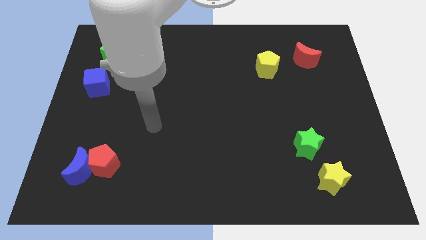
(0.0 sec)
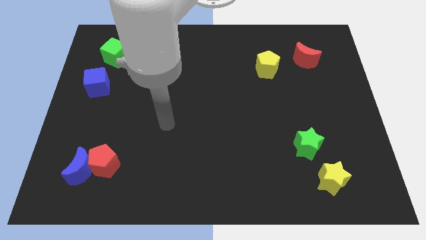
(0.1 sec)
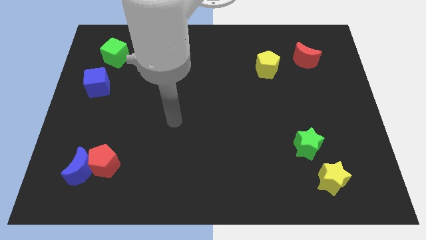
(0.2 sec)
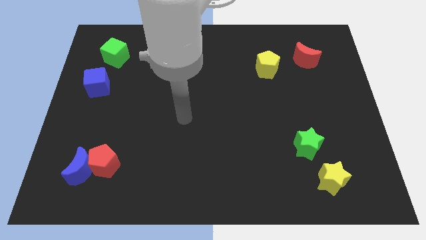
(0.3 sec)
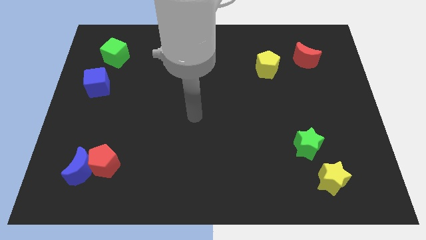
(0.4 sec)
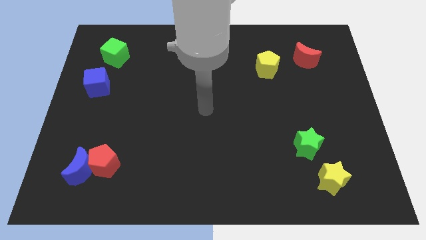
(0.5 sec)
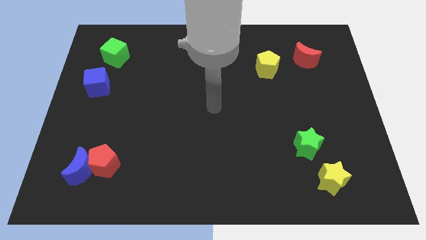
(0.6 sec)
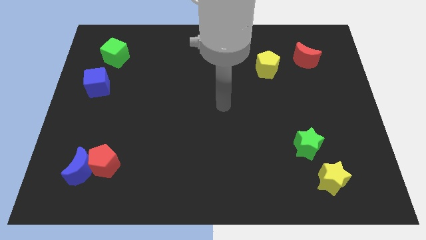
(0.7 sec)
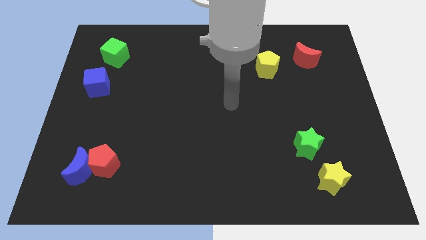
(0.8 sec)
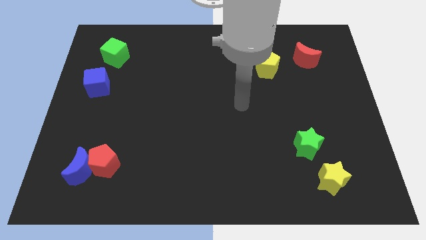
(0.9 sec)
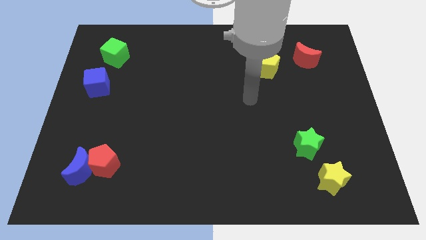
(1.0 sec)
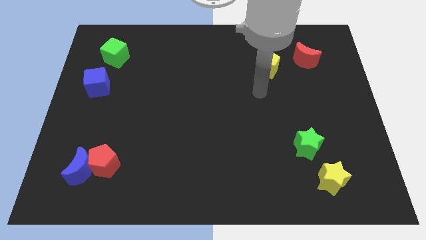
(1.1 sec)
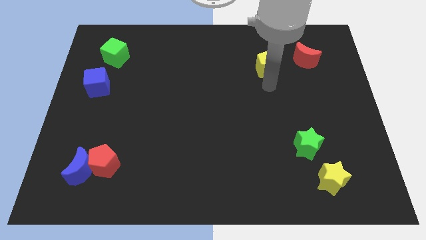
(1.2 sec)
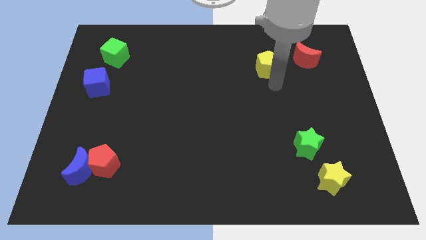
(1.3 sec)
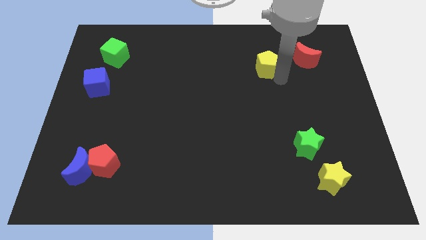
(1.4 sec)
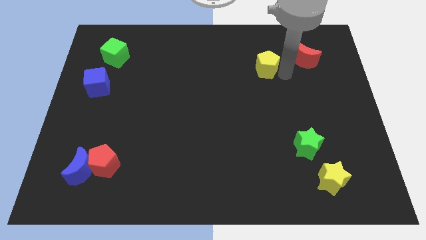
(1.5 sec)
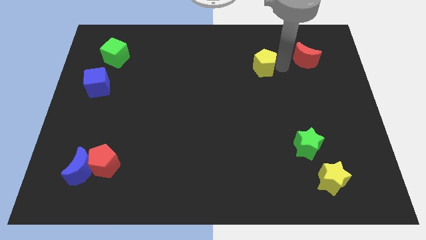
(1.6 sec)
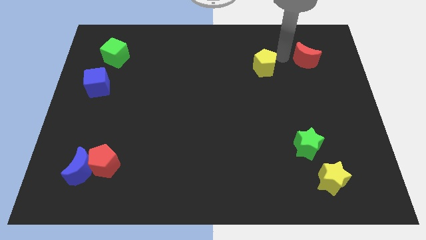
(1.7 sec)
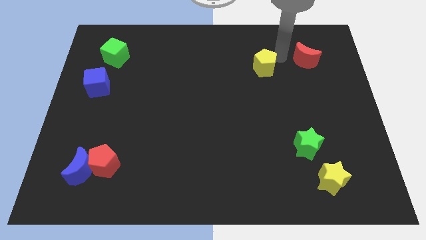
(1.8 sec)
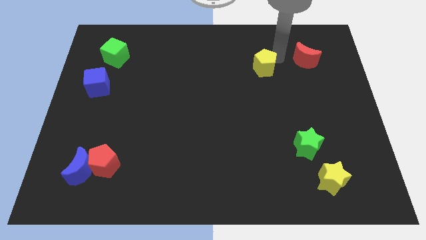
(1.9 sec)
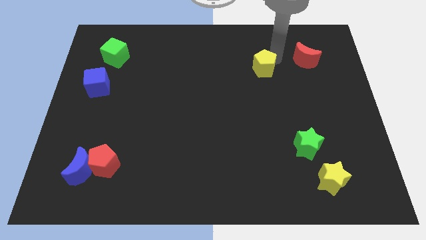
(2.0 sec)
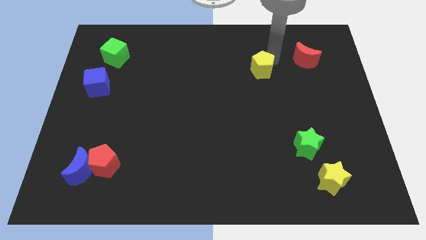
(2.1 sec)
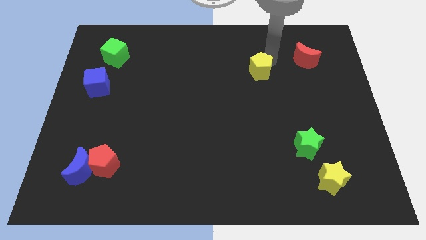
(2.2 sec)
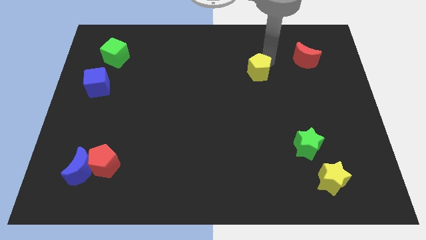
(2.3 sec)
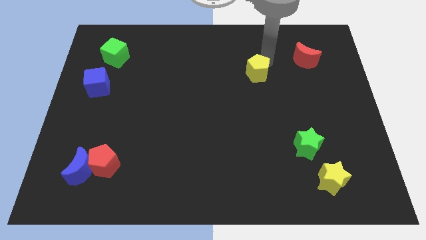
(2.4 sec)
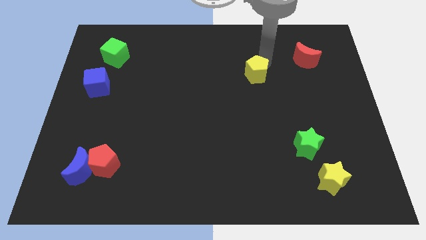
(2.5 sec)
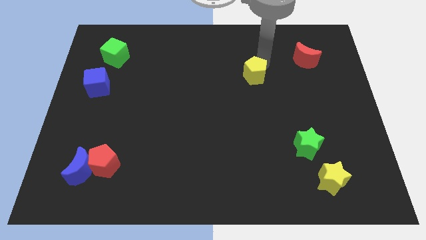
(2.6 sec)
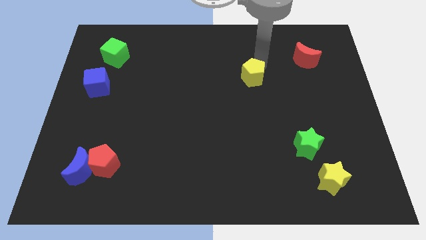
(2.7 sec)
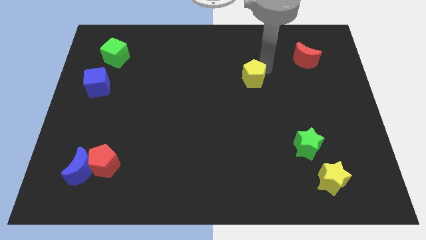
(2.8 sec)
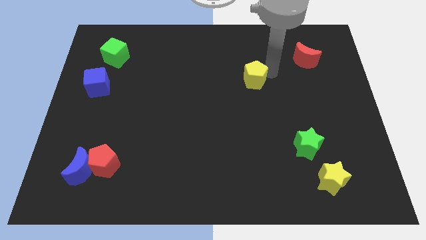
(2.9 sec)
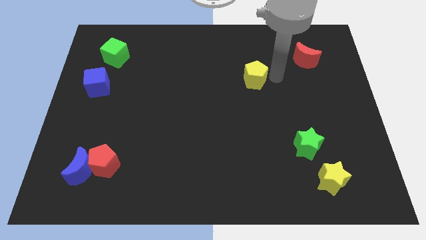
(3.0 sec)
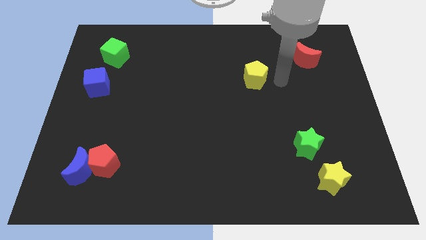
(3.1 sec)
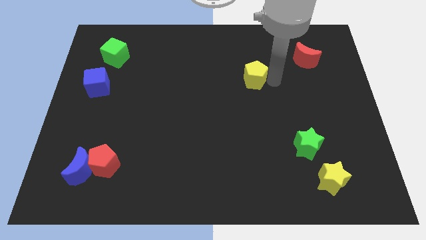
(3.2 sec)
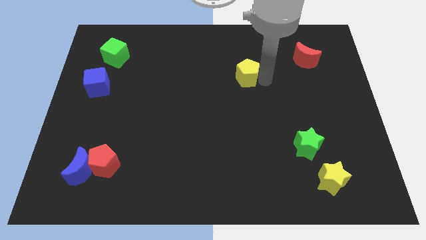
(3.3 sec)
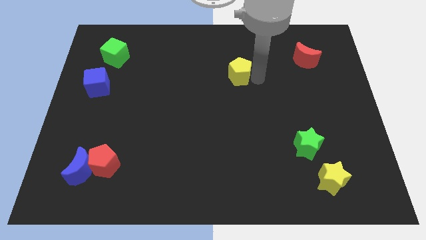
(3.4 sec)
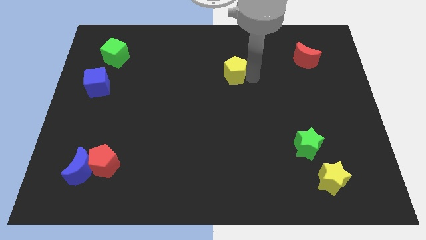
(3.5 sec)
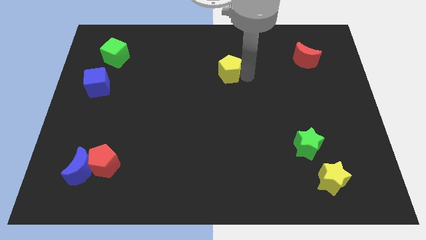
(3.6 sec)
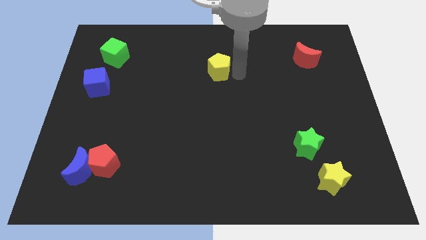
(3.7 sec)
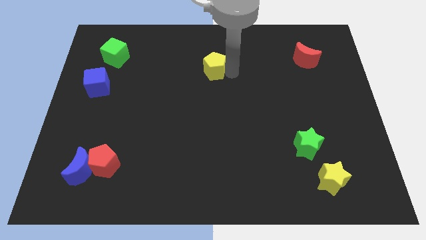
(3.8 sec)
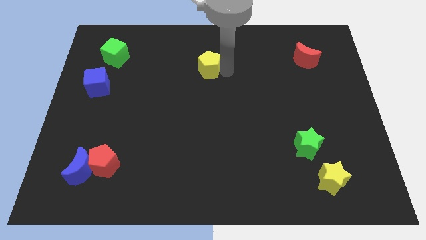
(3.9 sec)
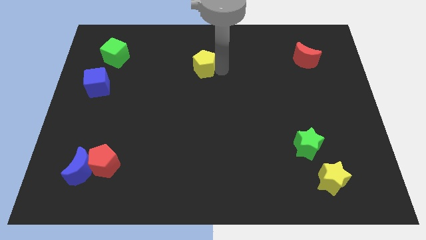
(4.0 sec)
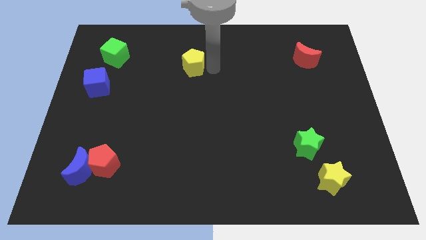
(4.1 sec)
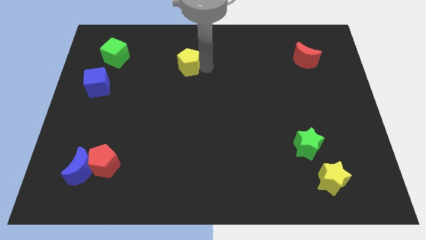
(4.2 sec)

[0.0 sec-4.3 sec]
push the yellow pentagon left

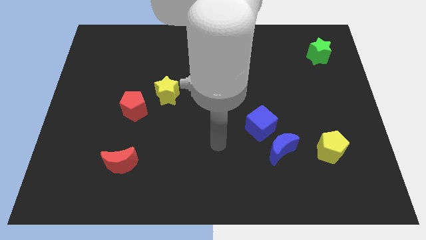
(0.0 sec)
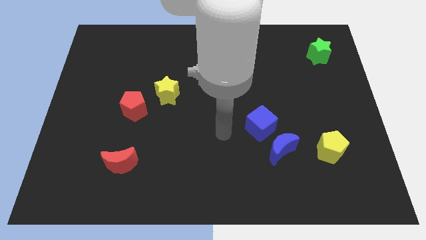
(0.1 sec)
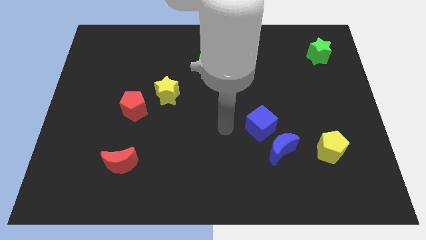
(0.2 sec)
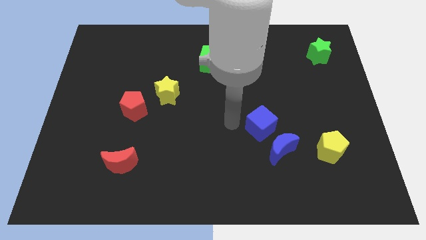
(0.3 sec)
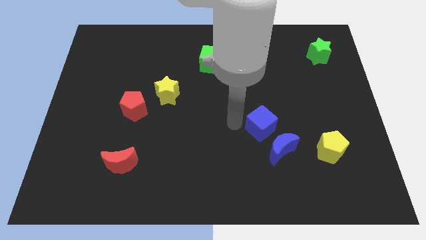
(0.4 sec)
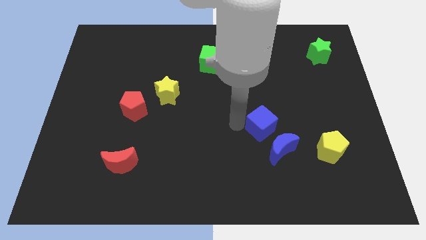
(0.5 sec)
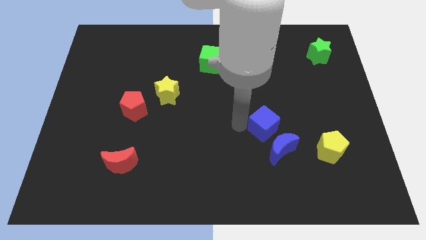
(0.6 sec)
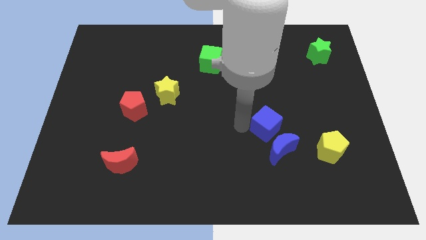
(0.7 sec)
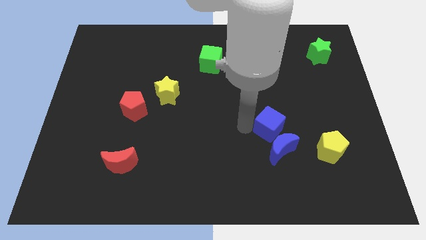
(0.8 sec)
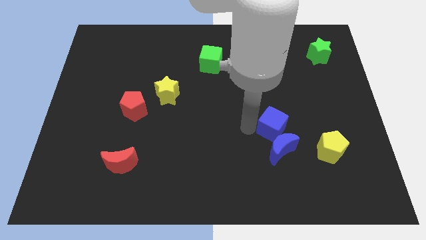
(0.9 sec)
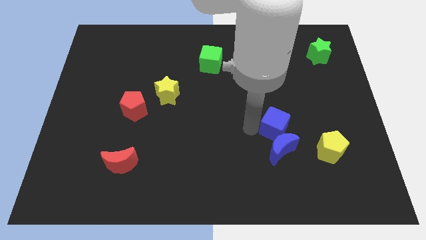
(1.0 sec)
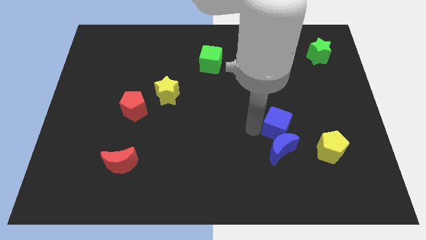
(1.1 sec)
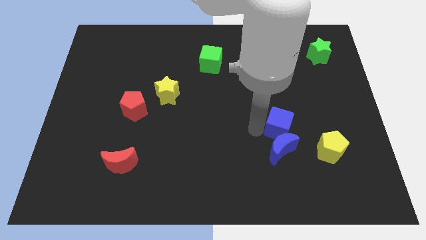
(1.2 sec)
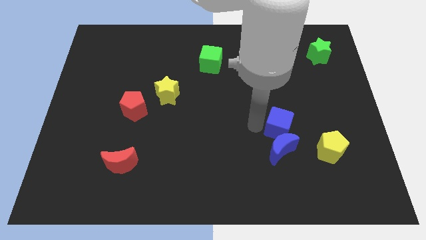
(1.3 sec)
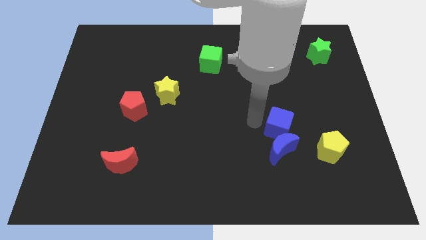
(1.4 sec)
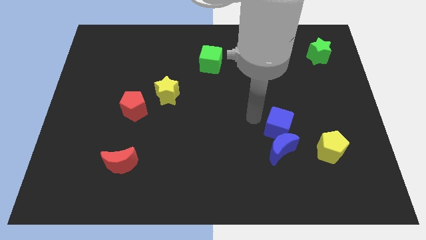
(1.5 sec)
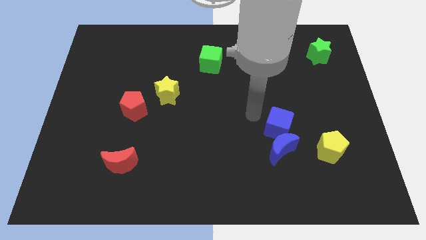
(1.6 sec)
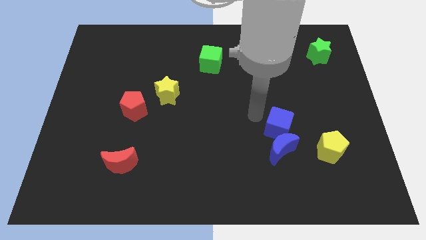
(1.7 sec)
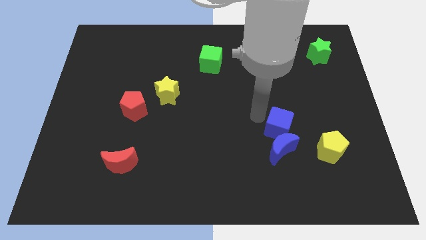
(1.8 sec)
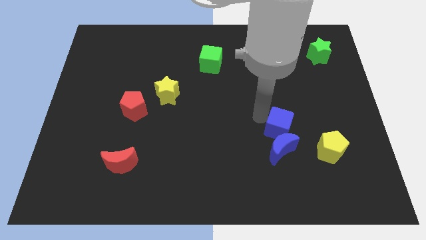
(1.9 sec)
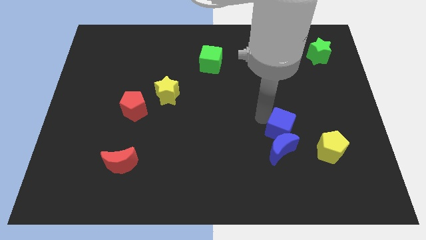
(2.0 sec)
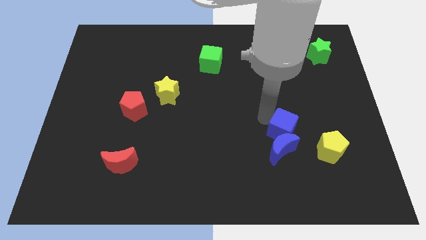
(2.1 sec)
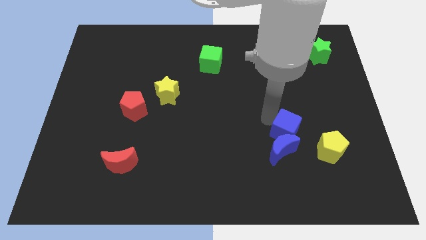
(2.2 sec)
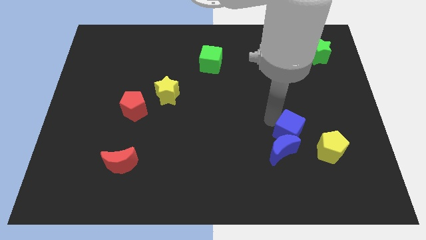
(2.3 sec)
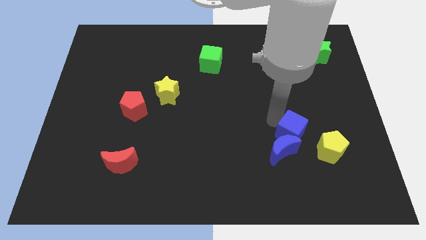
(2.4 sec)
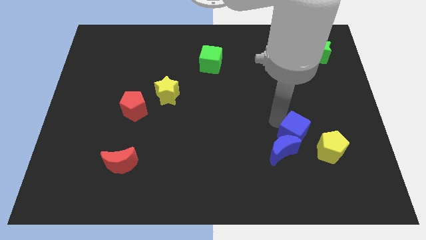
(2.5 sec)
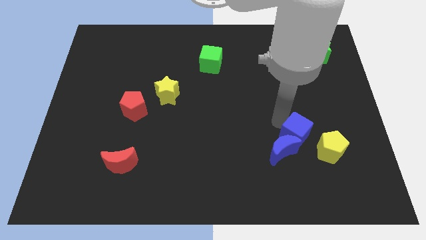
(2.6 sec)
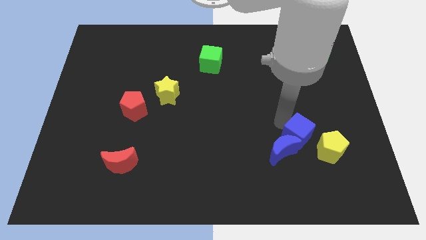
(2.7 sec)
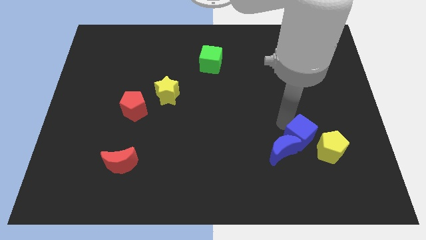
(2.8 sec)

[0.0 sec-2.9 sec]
slide the blue cube a bit down and then right

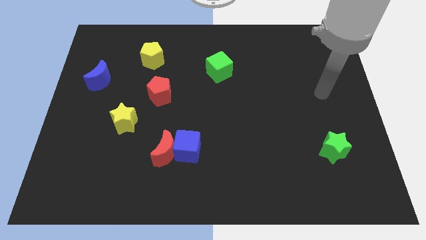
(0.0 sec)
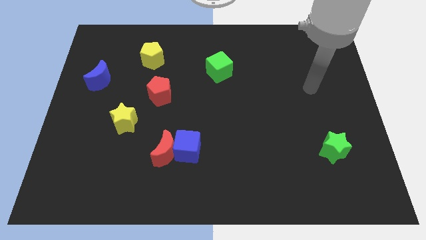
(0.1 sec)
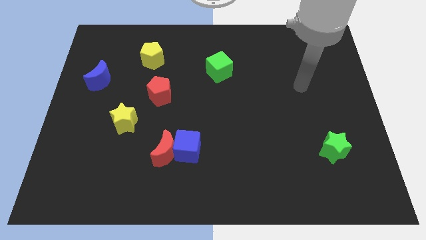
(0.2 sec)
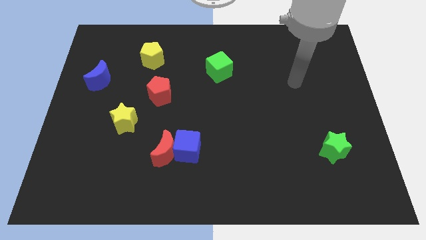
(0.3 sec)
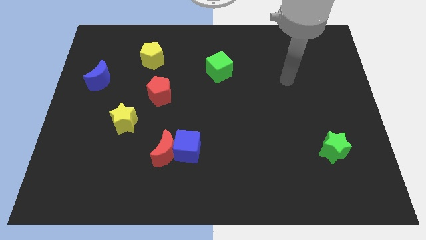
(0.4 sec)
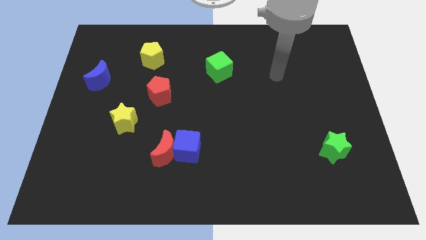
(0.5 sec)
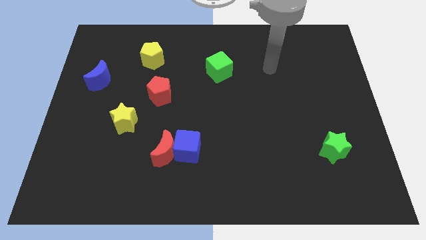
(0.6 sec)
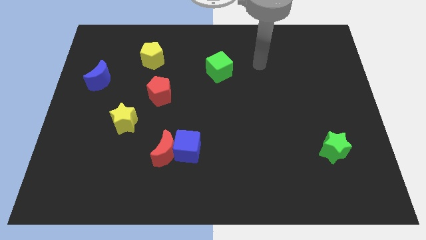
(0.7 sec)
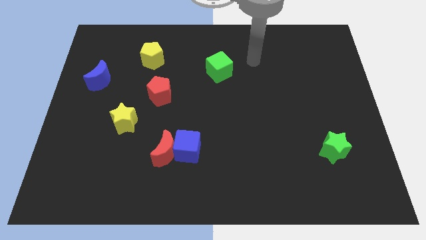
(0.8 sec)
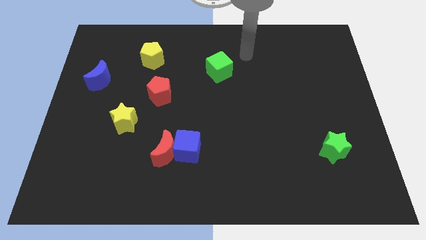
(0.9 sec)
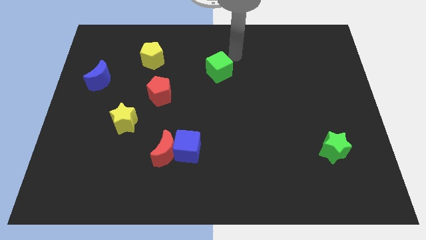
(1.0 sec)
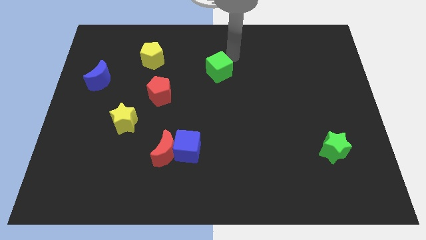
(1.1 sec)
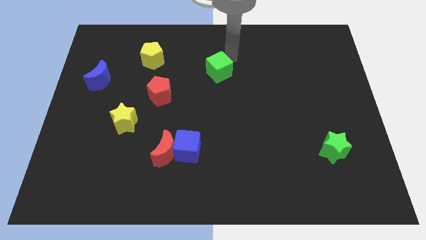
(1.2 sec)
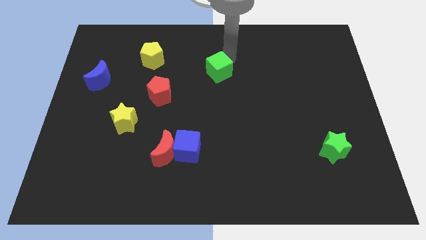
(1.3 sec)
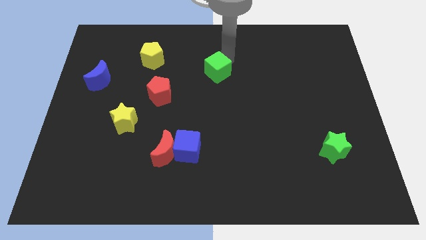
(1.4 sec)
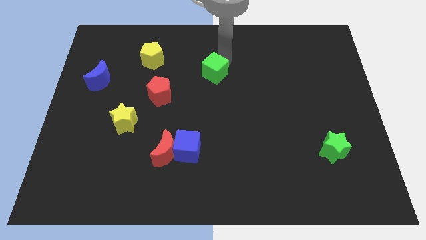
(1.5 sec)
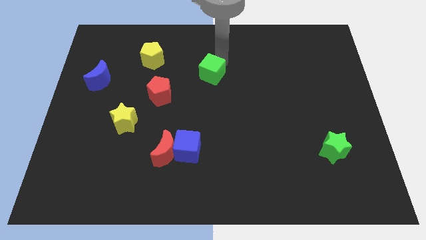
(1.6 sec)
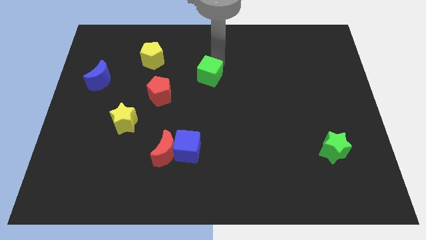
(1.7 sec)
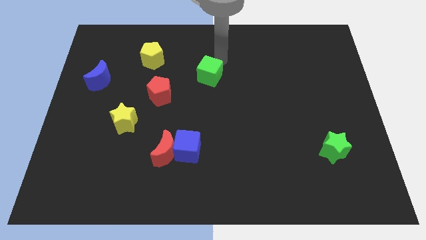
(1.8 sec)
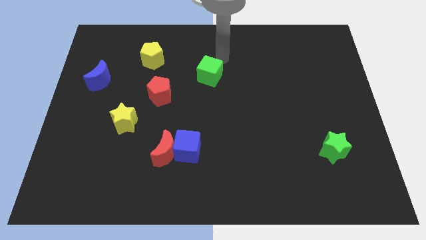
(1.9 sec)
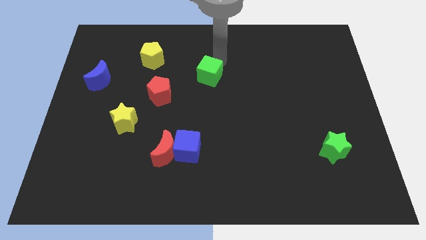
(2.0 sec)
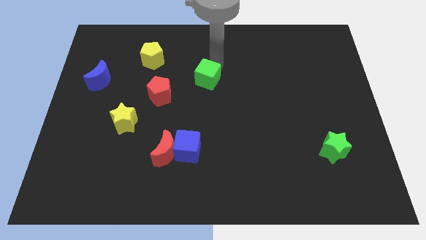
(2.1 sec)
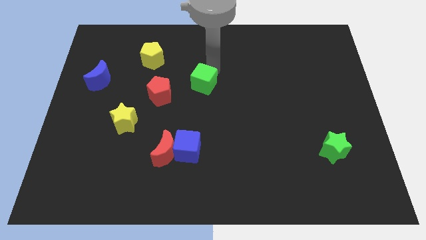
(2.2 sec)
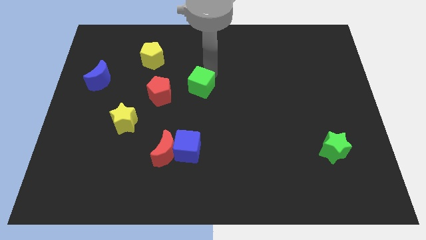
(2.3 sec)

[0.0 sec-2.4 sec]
push the green cube down and to the left diagonally a little bit
